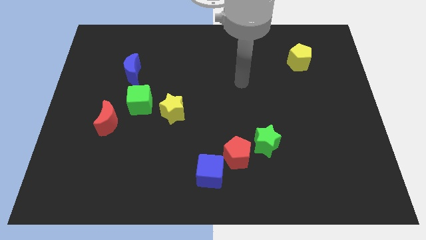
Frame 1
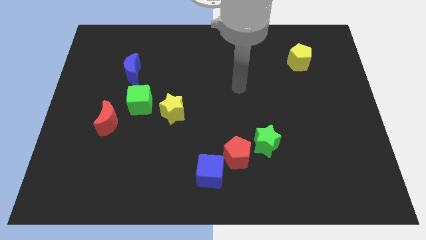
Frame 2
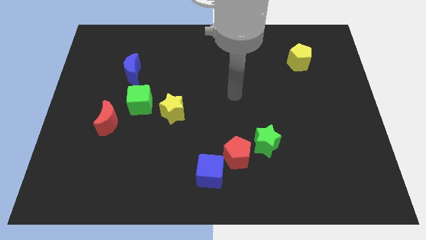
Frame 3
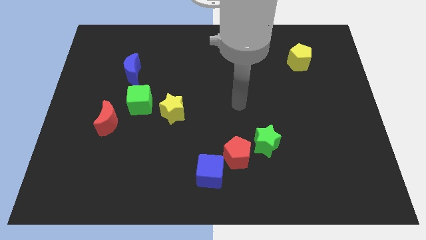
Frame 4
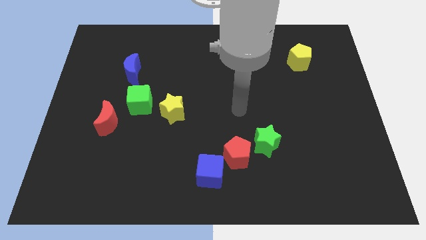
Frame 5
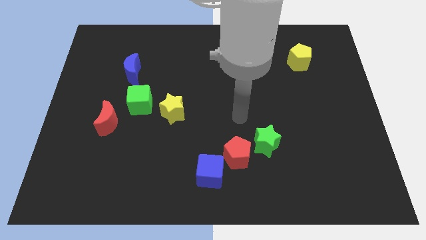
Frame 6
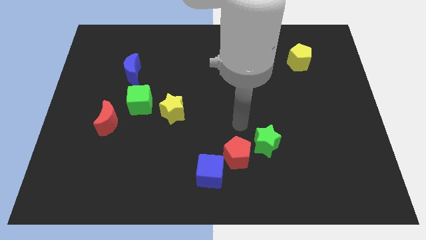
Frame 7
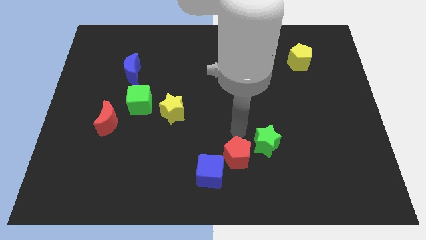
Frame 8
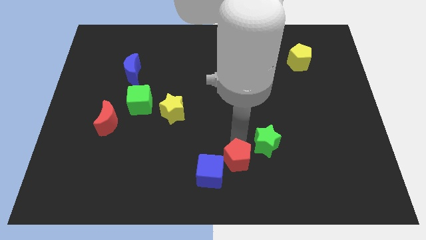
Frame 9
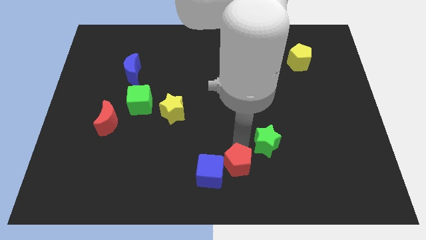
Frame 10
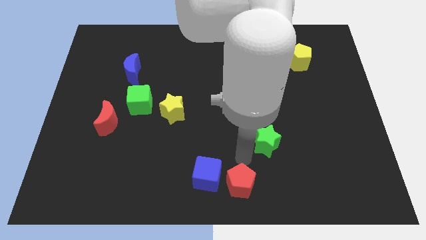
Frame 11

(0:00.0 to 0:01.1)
separate the green star from the red pentagon

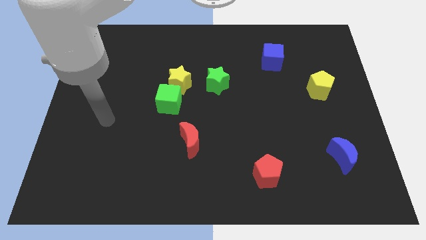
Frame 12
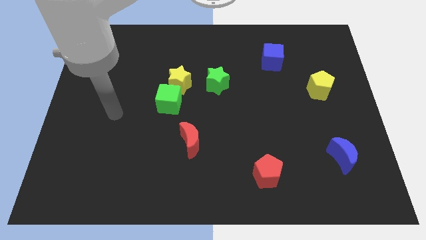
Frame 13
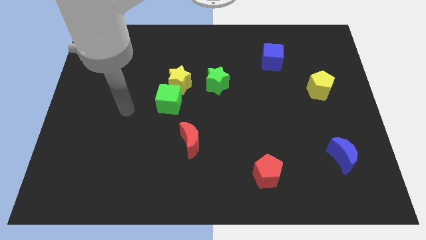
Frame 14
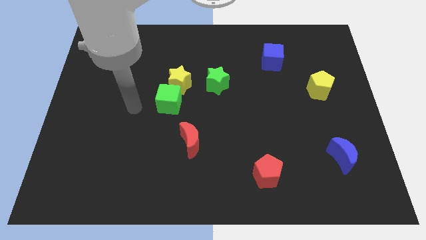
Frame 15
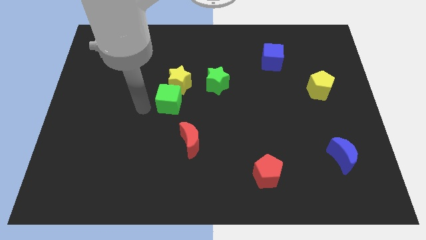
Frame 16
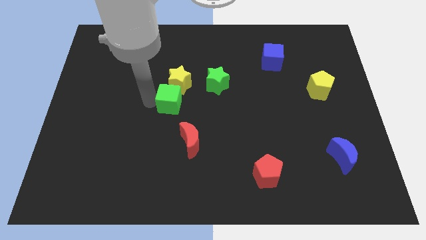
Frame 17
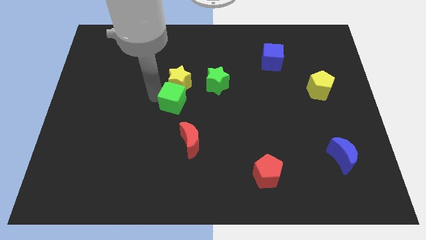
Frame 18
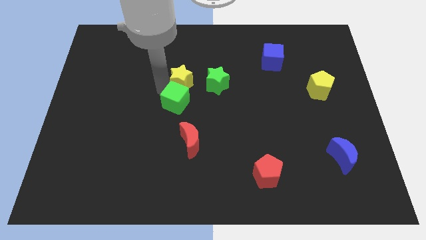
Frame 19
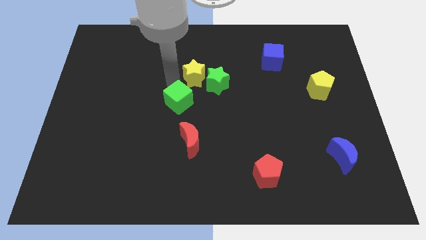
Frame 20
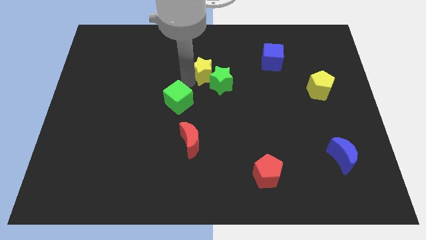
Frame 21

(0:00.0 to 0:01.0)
move the green cube away from the yellow star

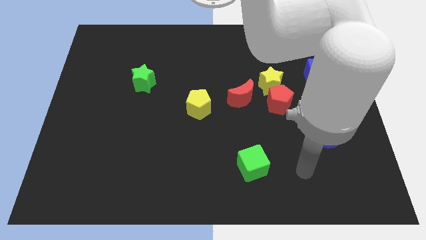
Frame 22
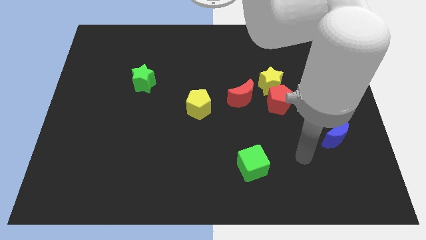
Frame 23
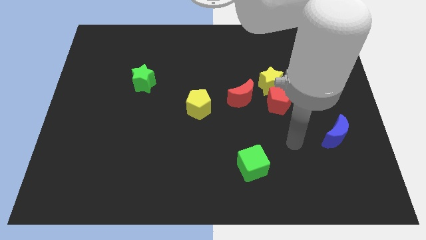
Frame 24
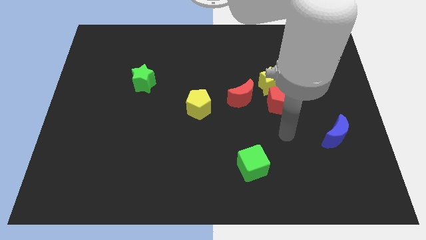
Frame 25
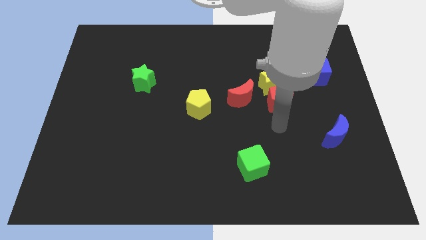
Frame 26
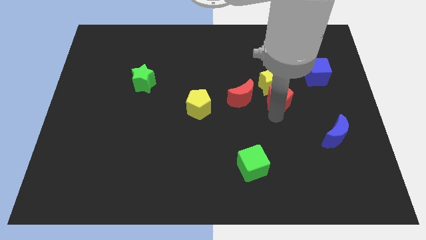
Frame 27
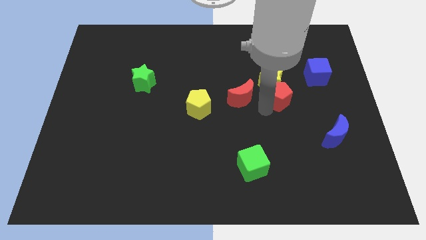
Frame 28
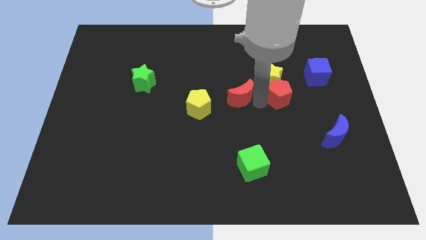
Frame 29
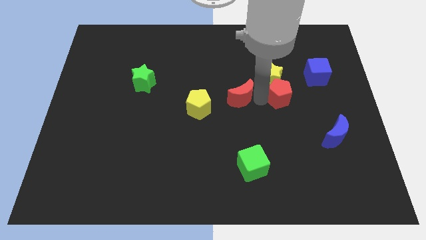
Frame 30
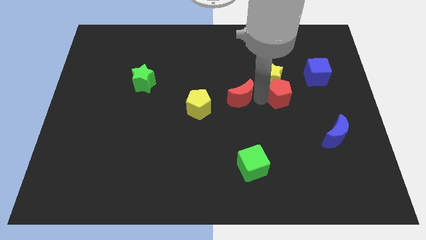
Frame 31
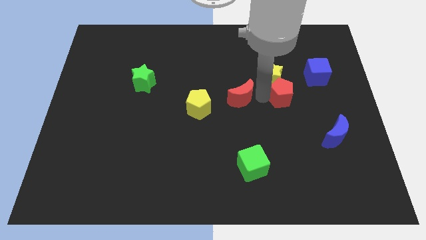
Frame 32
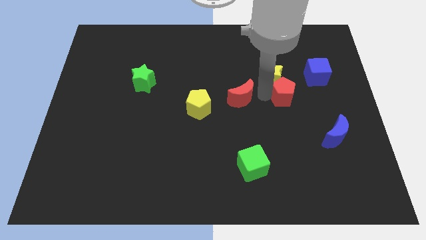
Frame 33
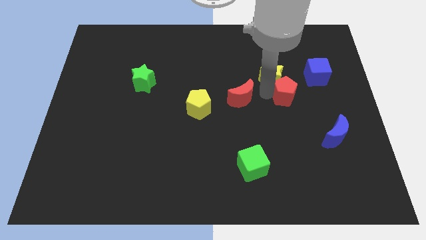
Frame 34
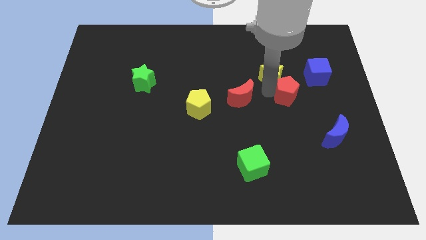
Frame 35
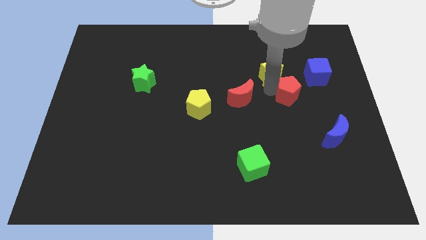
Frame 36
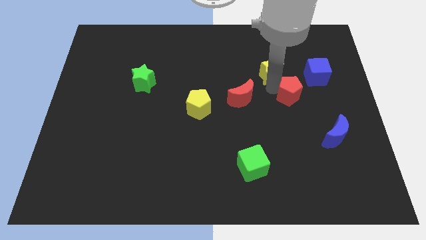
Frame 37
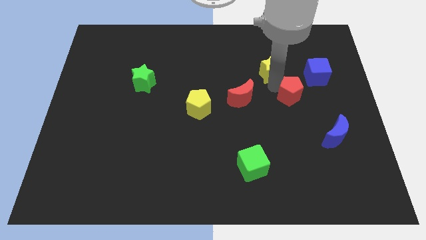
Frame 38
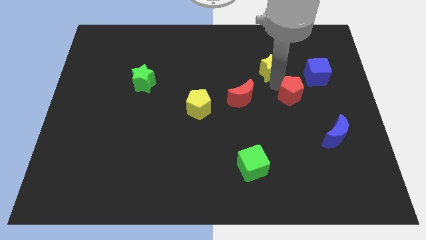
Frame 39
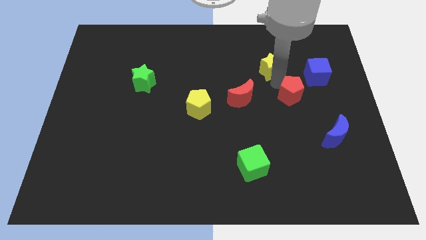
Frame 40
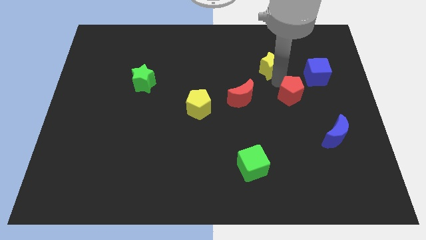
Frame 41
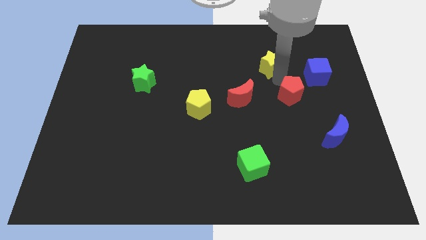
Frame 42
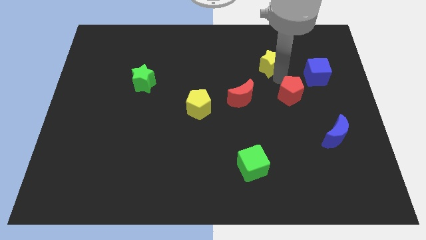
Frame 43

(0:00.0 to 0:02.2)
move the yellow star away from the red pentagon and red moon

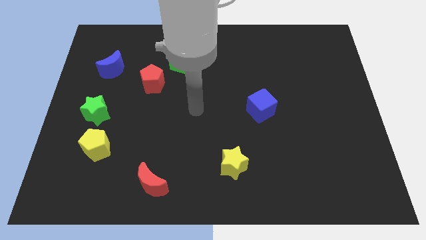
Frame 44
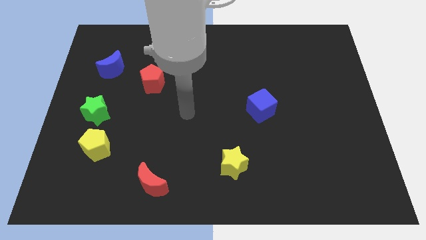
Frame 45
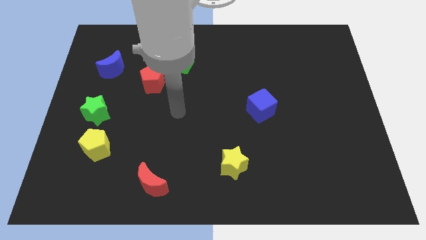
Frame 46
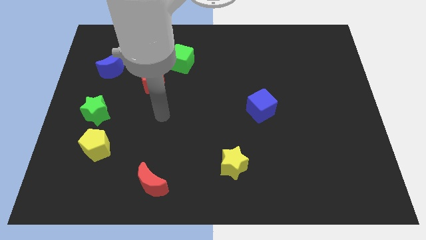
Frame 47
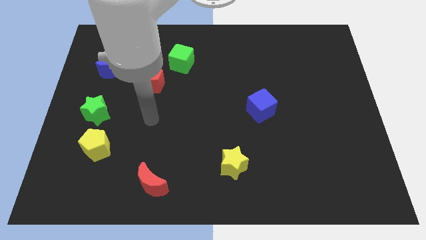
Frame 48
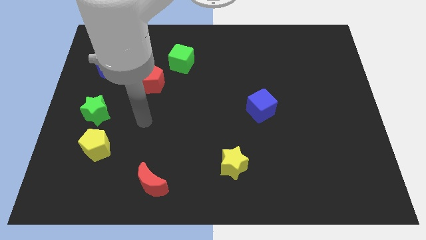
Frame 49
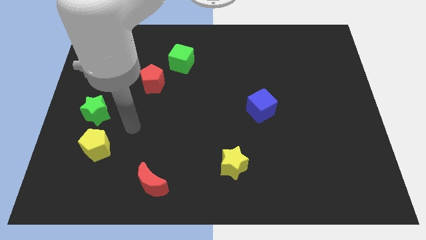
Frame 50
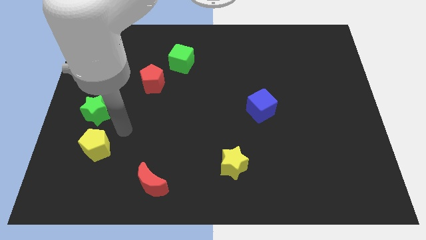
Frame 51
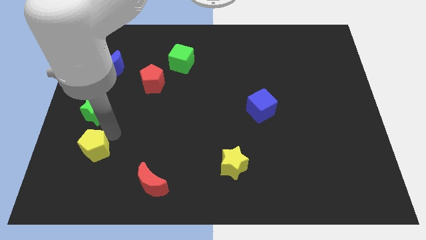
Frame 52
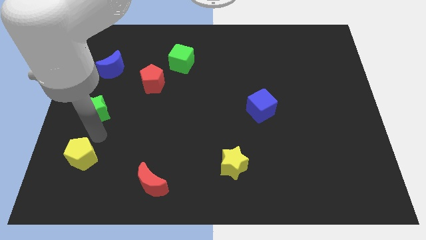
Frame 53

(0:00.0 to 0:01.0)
pull the green star apart from the yellow pentagon

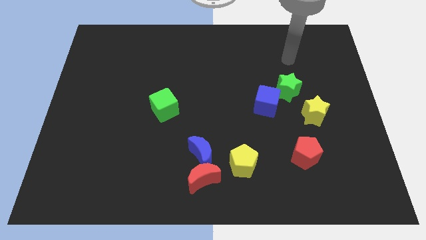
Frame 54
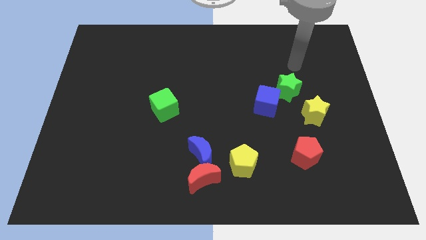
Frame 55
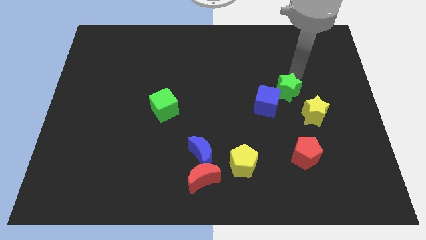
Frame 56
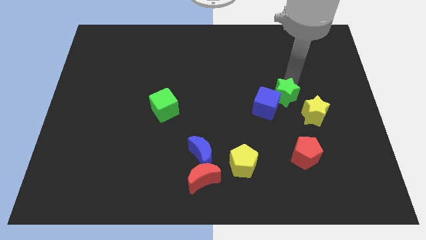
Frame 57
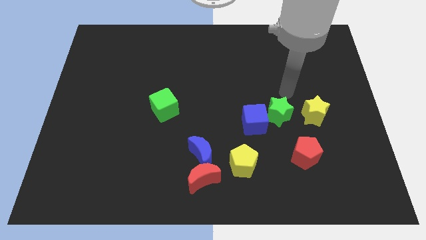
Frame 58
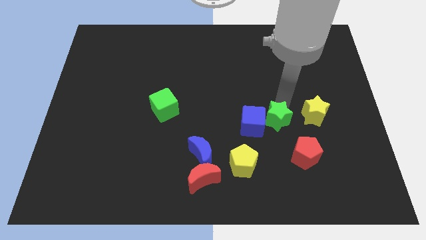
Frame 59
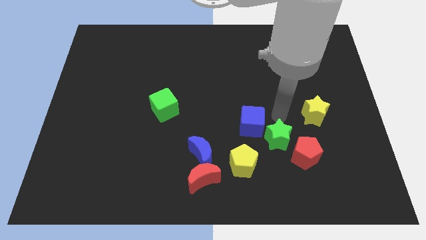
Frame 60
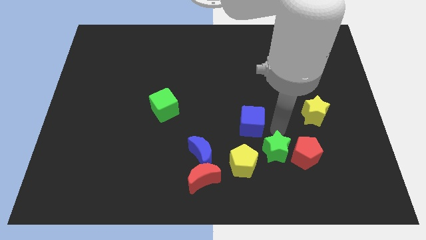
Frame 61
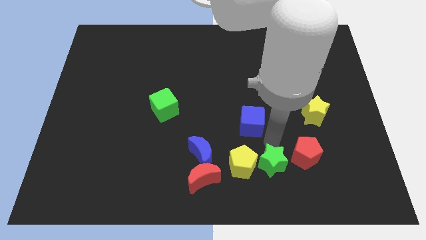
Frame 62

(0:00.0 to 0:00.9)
separate the blue cube from the green star

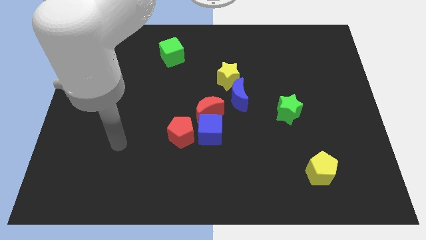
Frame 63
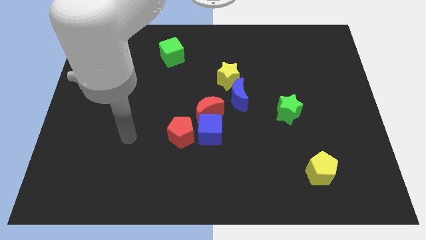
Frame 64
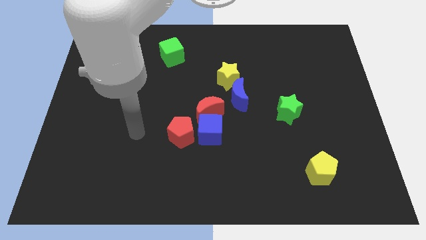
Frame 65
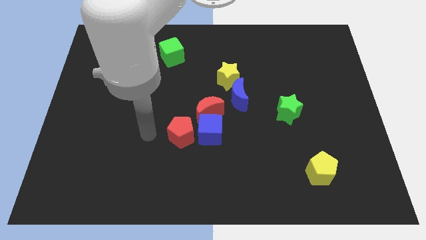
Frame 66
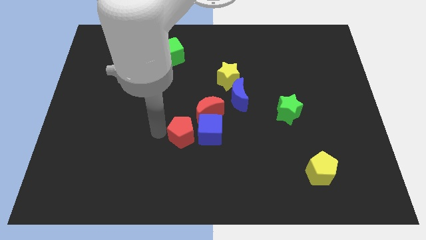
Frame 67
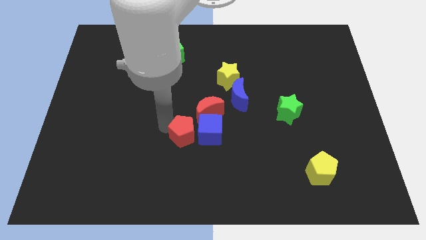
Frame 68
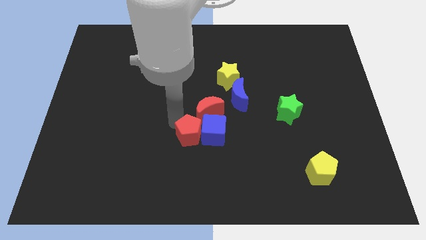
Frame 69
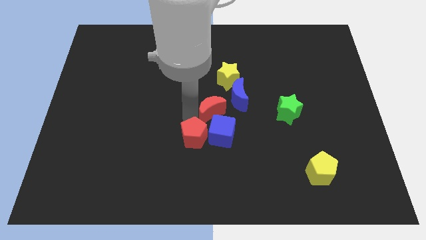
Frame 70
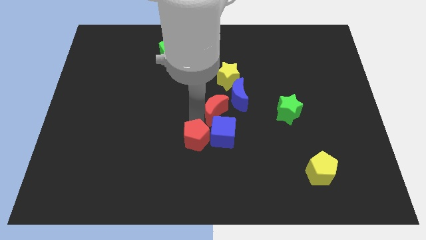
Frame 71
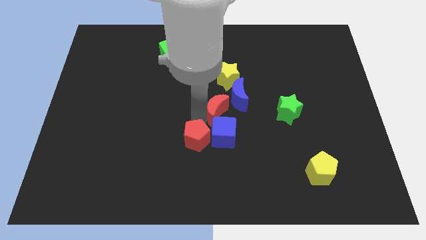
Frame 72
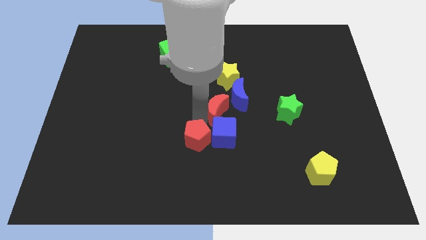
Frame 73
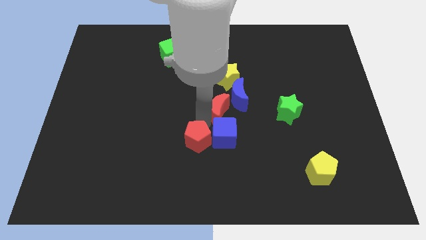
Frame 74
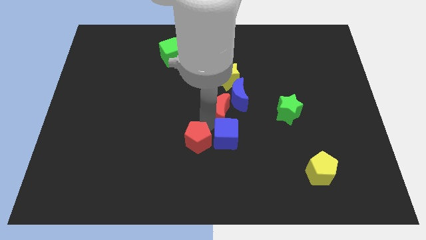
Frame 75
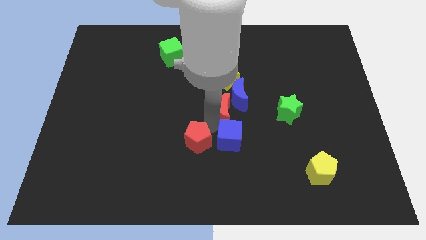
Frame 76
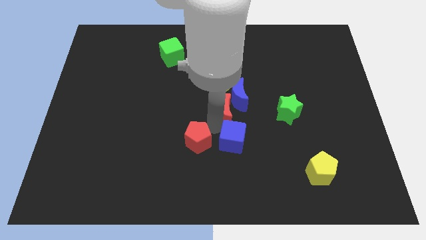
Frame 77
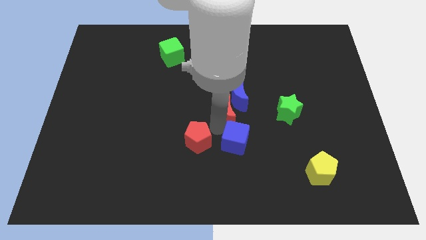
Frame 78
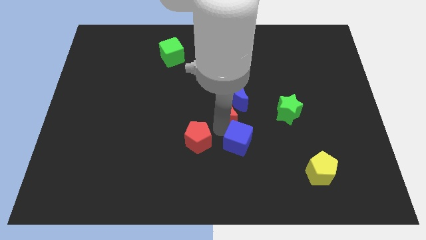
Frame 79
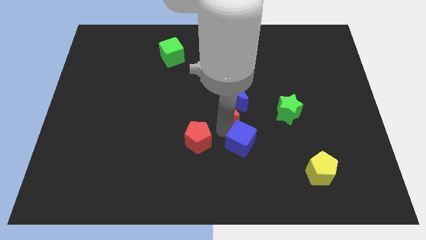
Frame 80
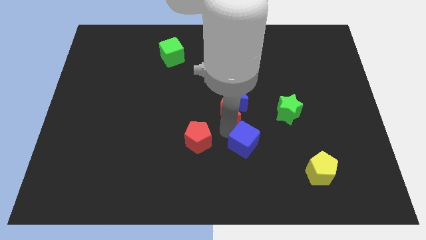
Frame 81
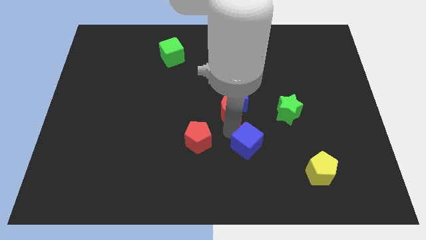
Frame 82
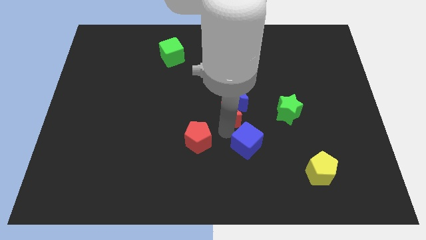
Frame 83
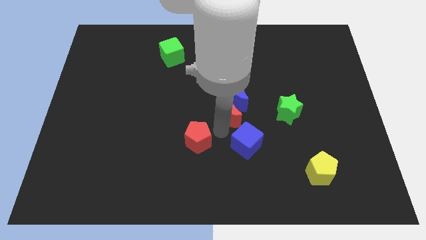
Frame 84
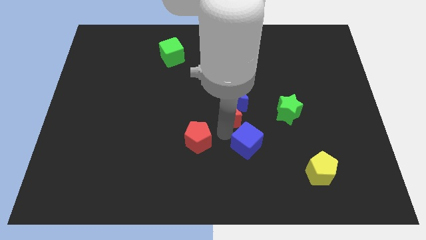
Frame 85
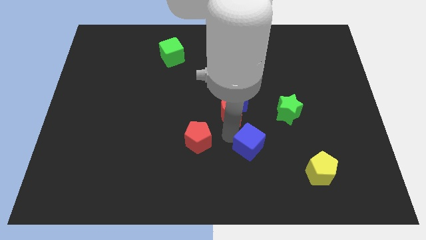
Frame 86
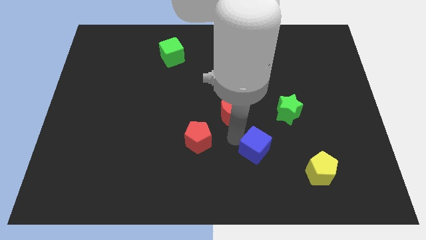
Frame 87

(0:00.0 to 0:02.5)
pull the blue cube apart from the red moon and red pentagon

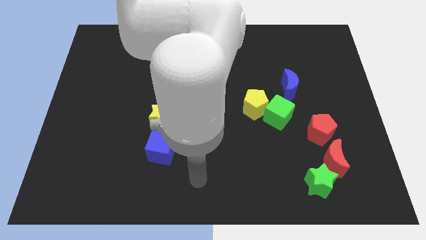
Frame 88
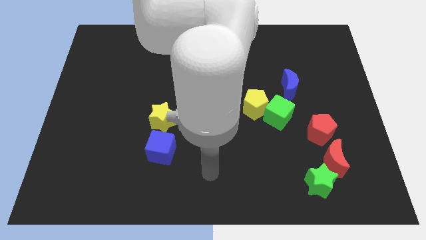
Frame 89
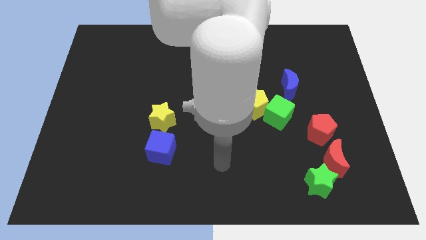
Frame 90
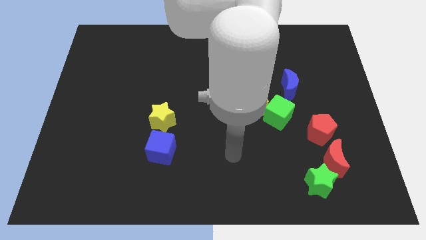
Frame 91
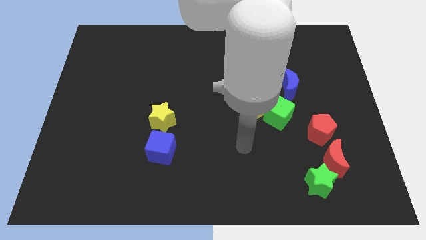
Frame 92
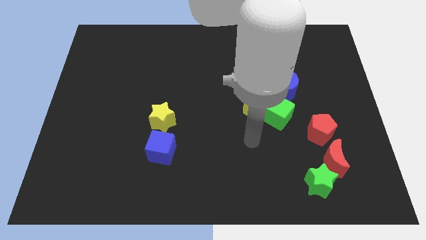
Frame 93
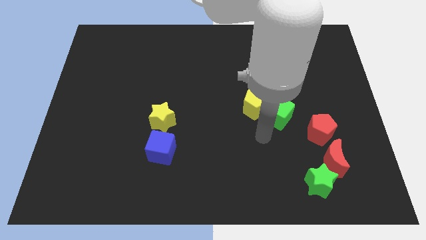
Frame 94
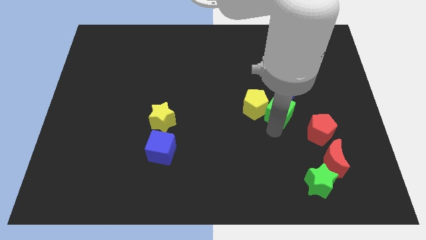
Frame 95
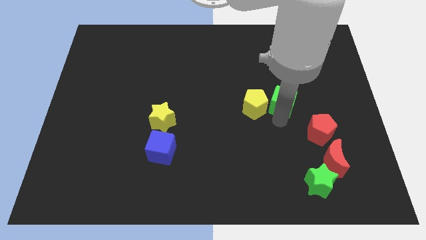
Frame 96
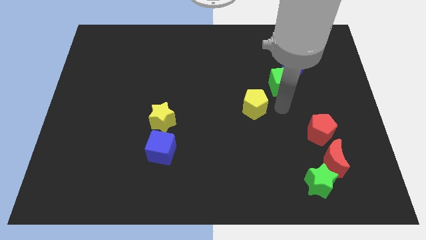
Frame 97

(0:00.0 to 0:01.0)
separate the yellow pentagon from the green cube
